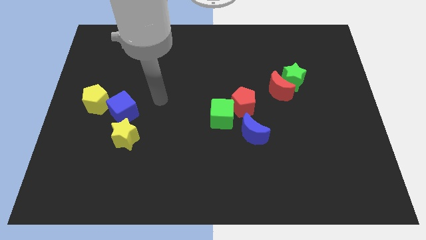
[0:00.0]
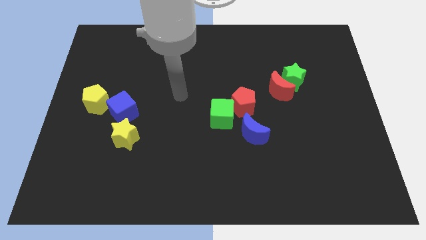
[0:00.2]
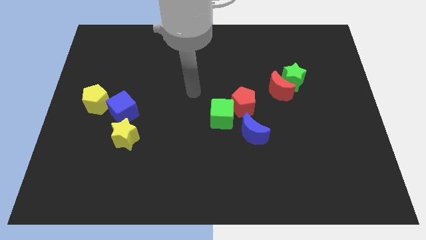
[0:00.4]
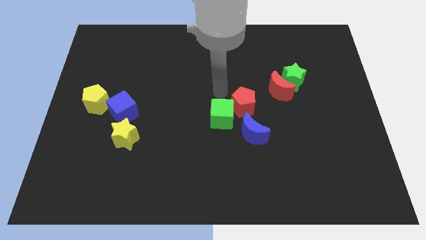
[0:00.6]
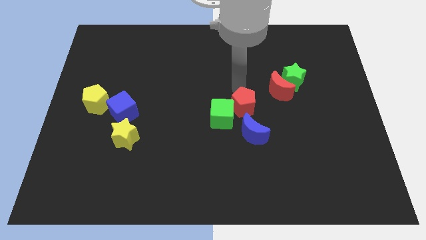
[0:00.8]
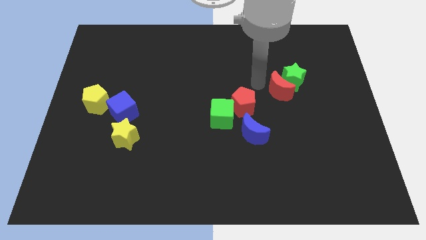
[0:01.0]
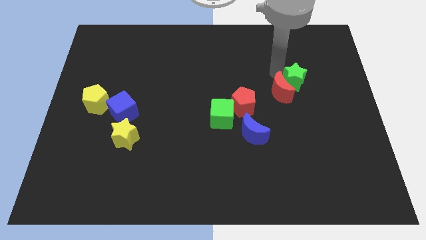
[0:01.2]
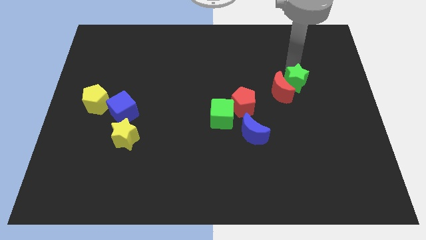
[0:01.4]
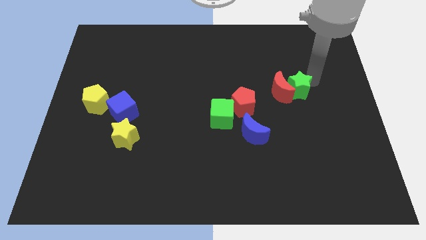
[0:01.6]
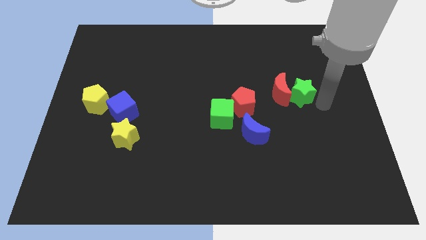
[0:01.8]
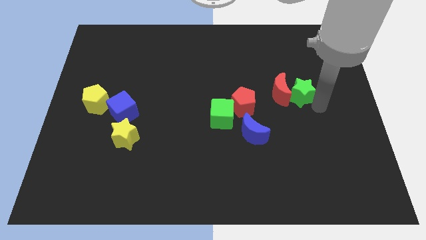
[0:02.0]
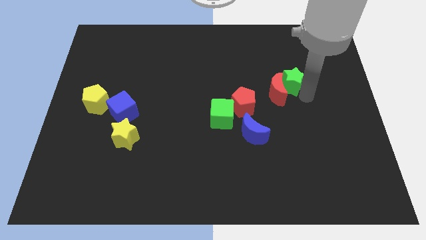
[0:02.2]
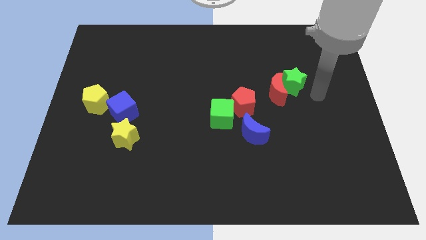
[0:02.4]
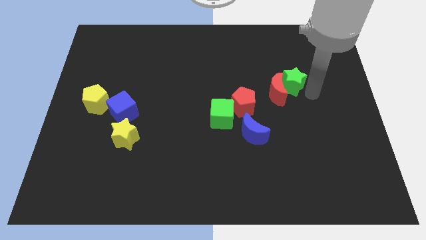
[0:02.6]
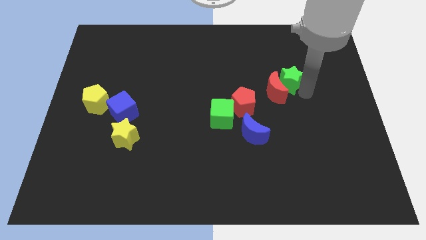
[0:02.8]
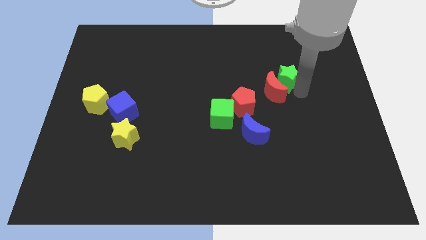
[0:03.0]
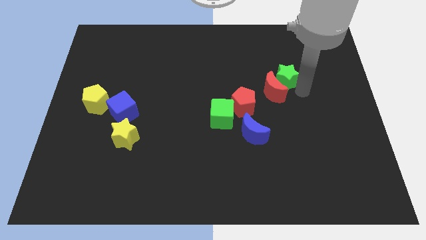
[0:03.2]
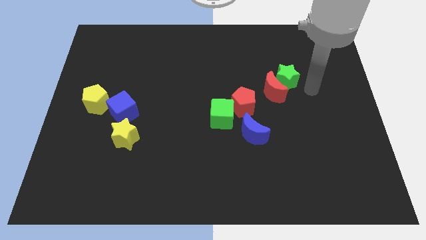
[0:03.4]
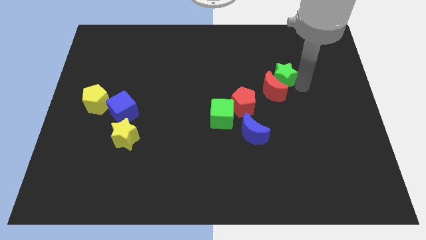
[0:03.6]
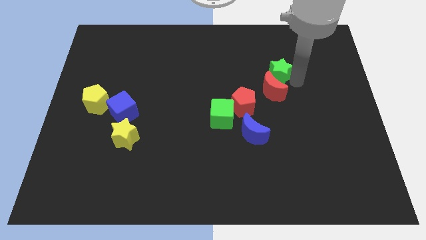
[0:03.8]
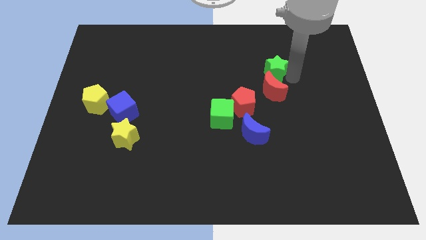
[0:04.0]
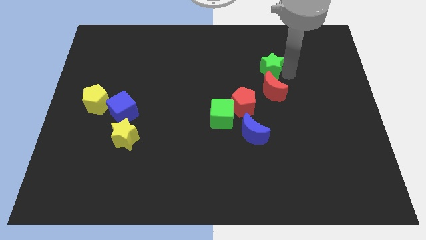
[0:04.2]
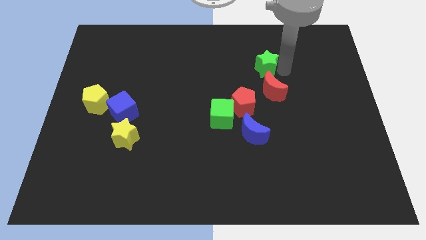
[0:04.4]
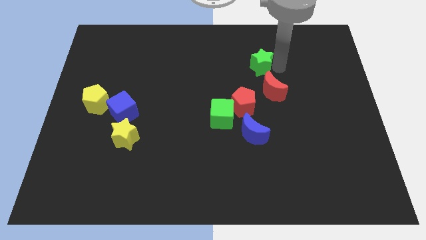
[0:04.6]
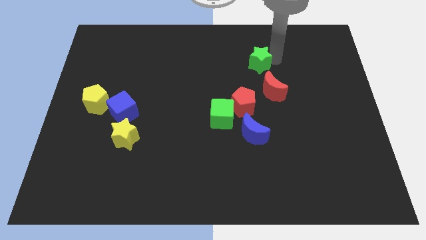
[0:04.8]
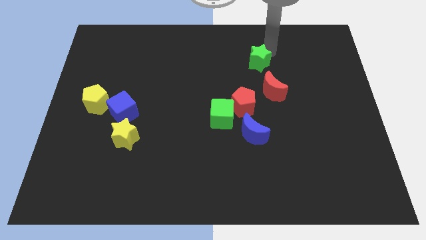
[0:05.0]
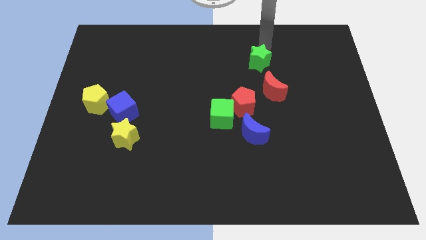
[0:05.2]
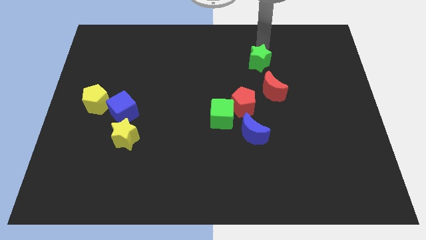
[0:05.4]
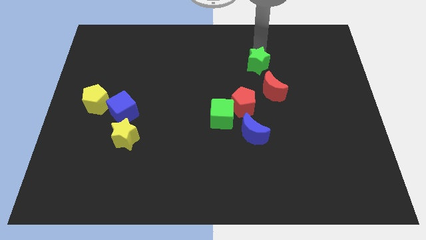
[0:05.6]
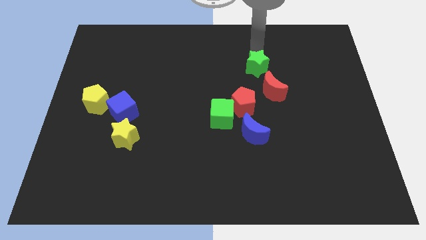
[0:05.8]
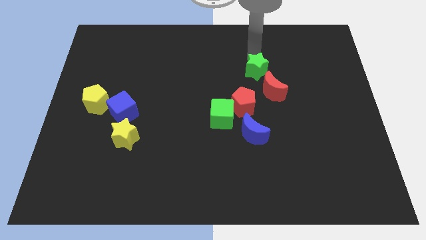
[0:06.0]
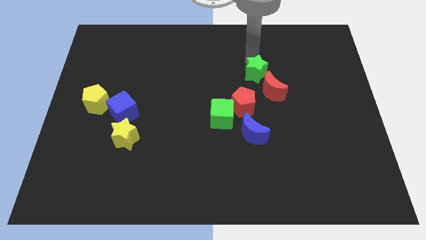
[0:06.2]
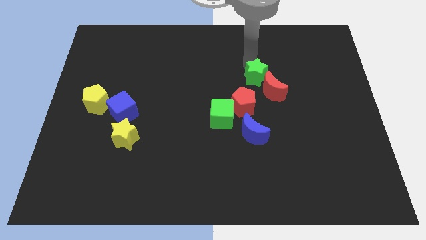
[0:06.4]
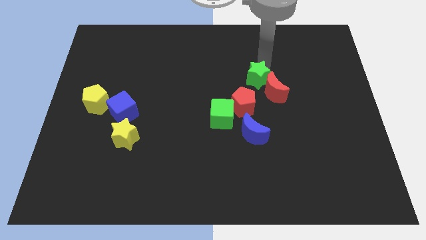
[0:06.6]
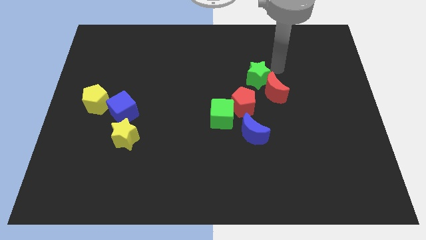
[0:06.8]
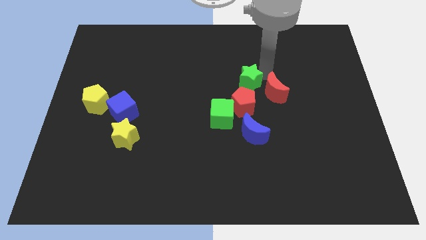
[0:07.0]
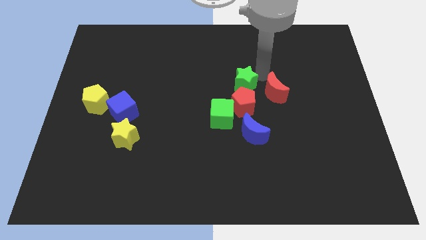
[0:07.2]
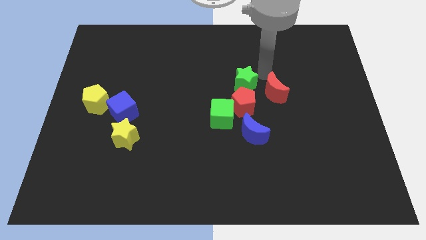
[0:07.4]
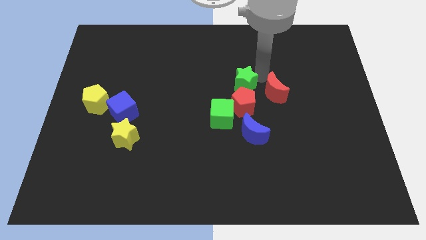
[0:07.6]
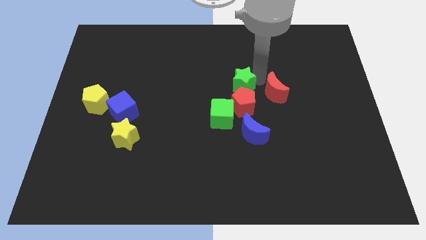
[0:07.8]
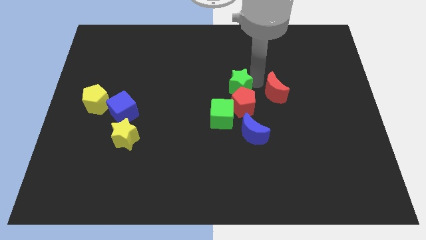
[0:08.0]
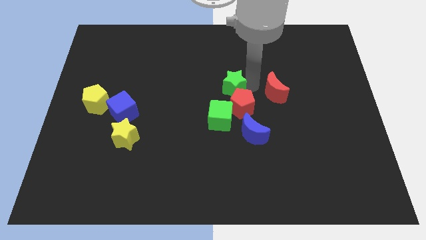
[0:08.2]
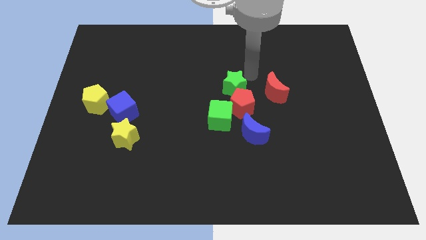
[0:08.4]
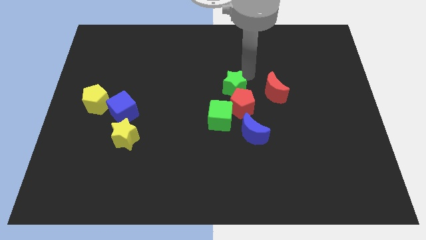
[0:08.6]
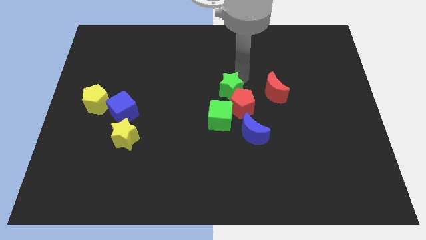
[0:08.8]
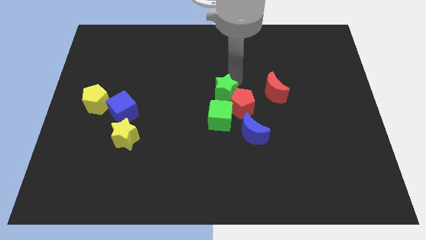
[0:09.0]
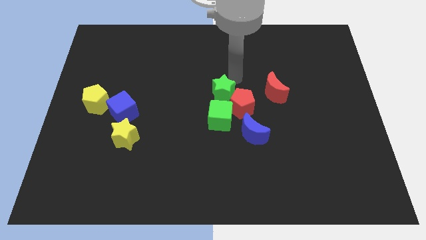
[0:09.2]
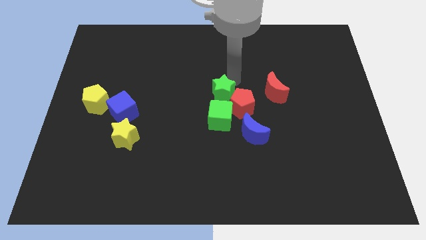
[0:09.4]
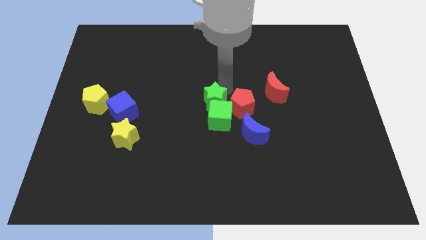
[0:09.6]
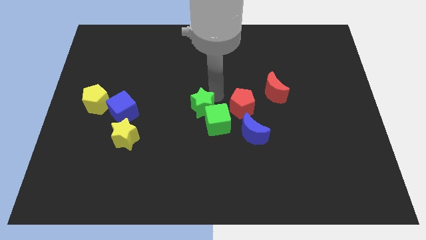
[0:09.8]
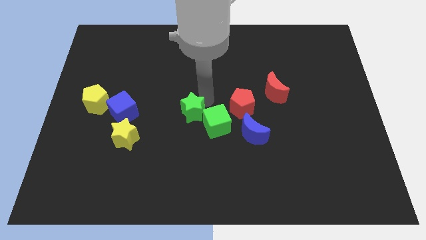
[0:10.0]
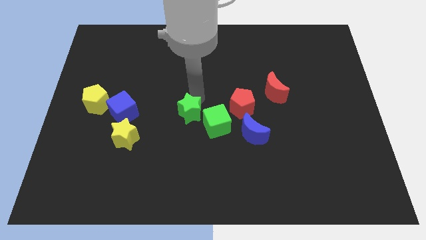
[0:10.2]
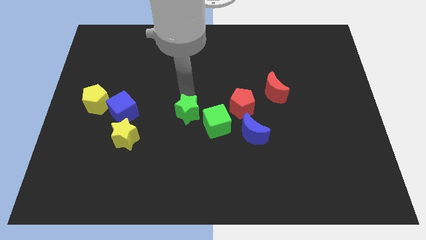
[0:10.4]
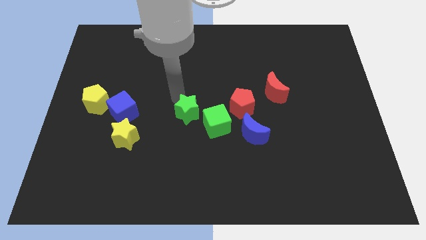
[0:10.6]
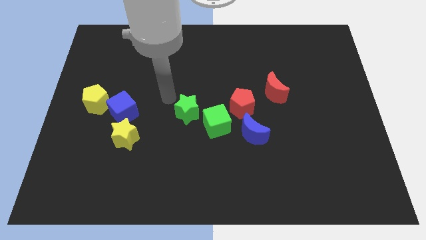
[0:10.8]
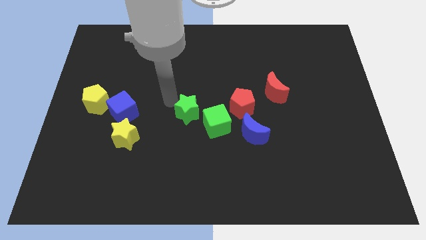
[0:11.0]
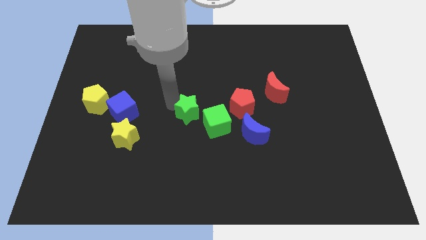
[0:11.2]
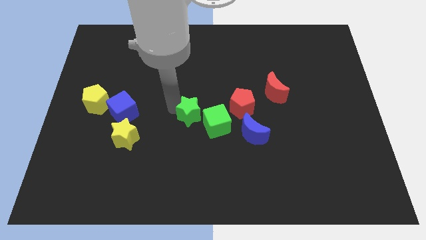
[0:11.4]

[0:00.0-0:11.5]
slide the green star diagonally down and left

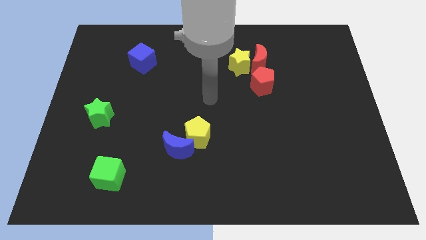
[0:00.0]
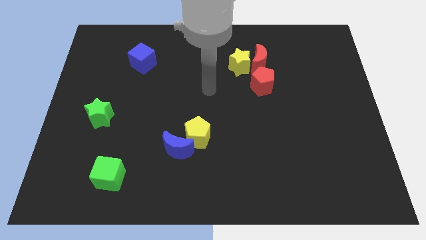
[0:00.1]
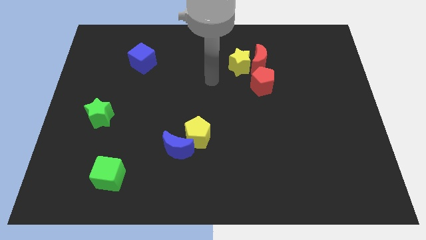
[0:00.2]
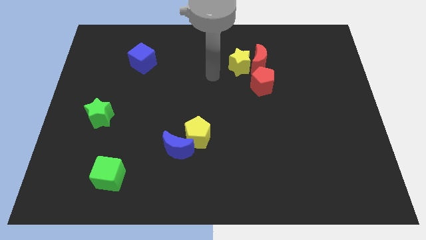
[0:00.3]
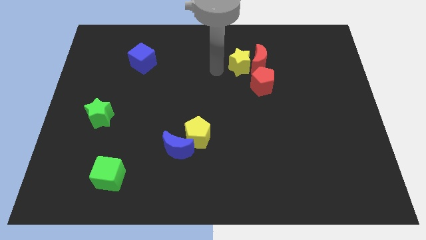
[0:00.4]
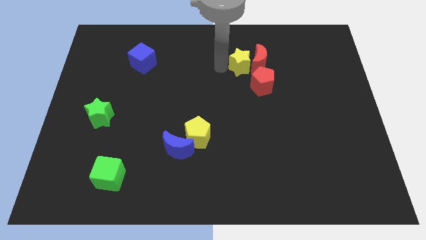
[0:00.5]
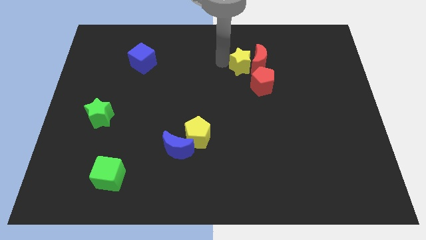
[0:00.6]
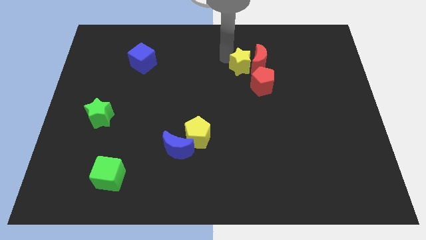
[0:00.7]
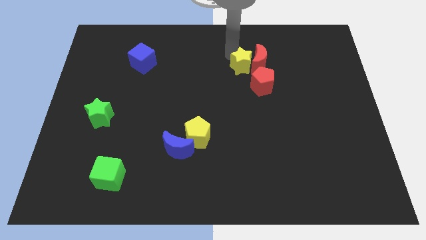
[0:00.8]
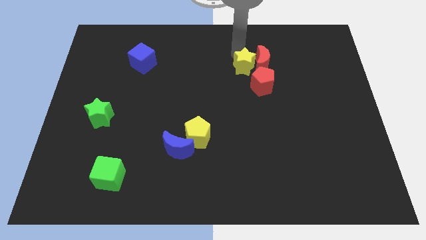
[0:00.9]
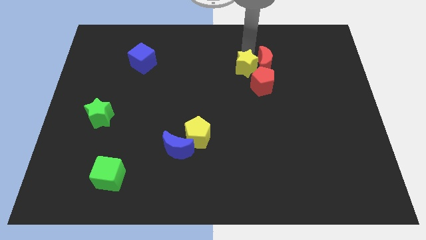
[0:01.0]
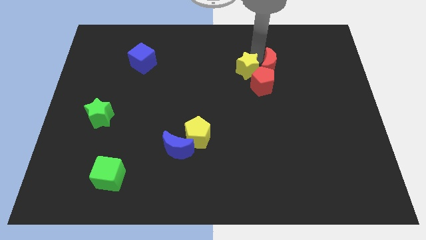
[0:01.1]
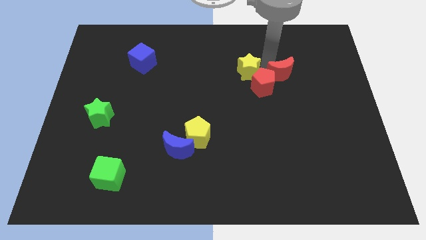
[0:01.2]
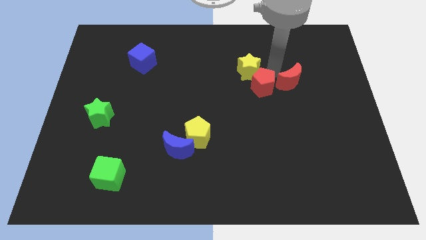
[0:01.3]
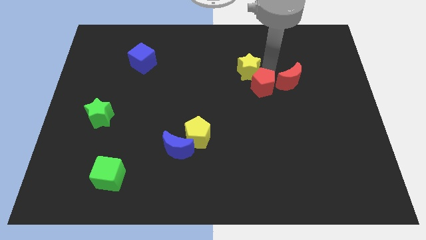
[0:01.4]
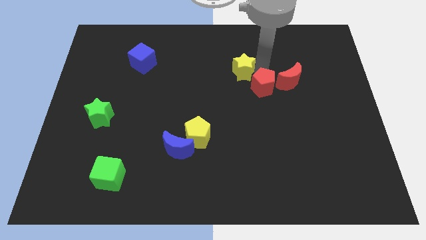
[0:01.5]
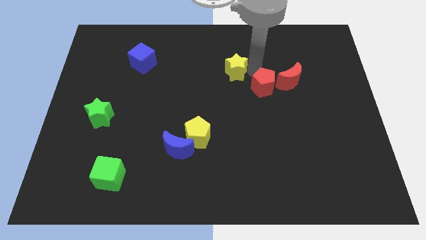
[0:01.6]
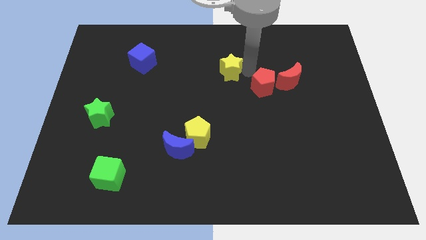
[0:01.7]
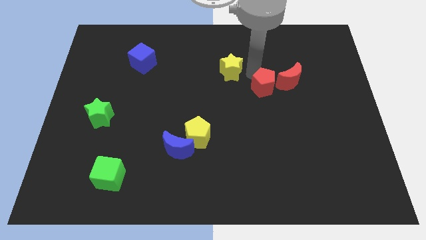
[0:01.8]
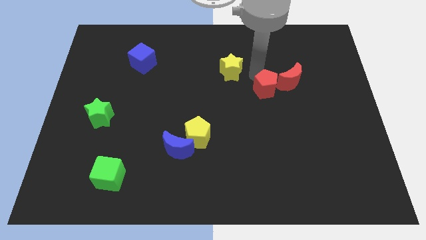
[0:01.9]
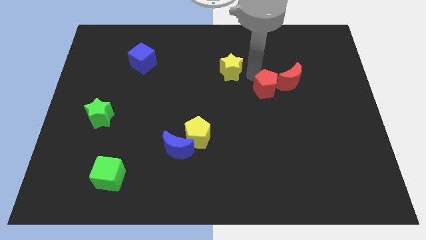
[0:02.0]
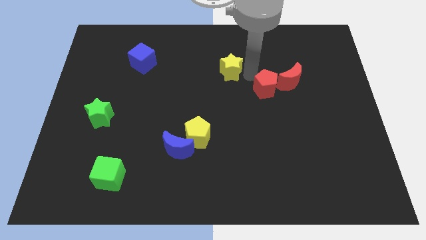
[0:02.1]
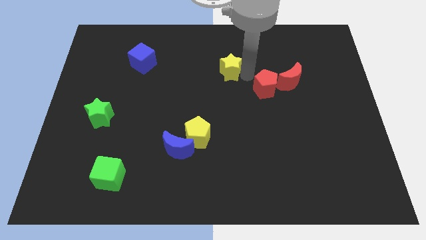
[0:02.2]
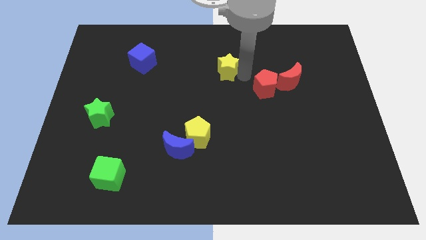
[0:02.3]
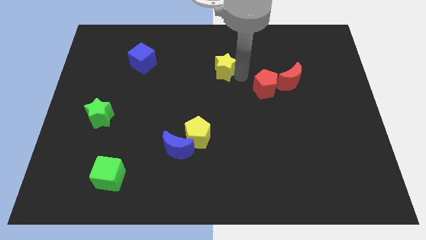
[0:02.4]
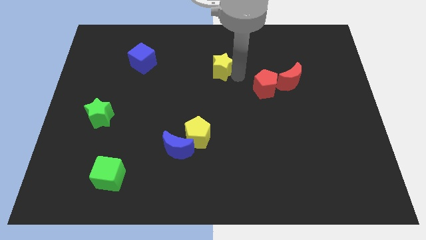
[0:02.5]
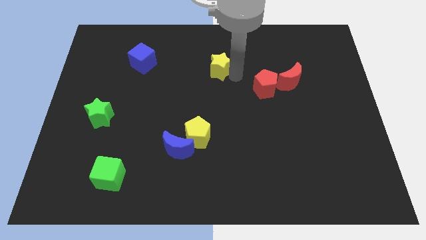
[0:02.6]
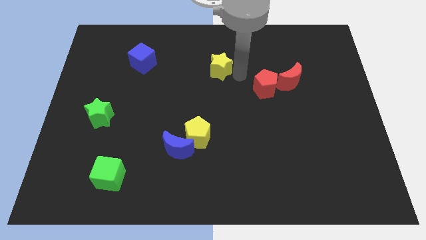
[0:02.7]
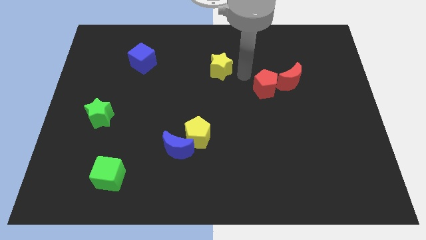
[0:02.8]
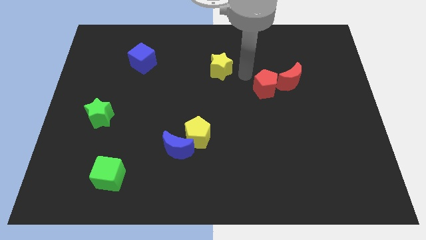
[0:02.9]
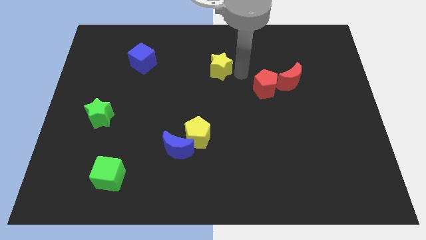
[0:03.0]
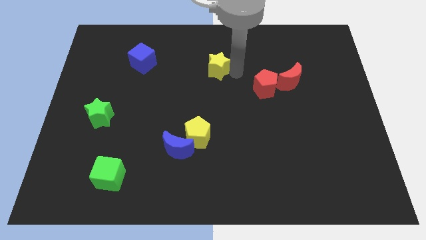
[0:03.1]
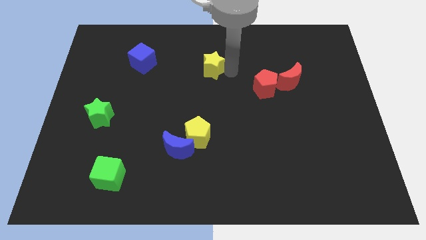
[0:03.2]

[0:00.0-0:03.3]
slightly move the yellow star to the left
